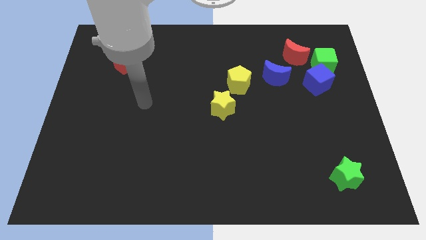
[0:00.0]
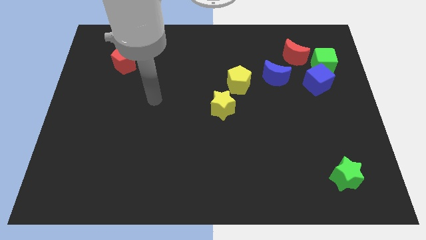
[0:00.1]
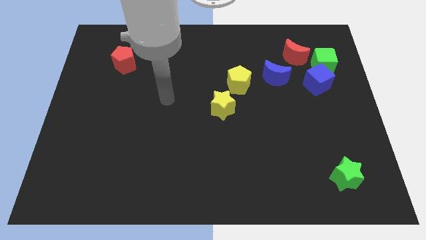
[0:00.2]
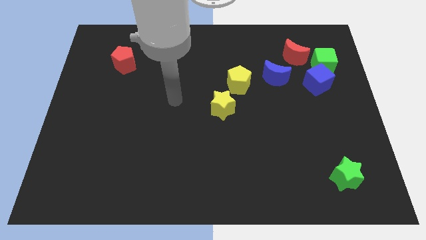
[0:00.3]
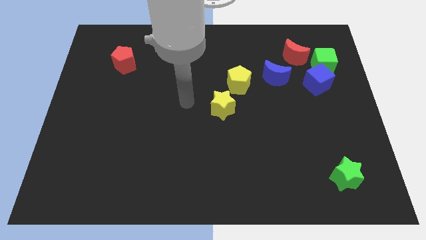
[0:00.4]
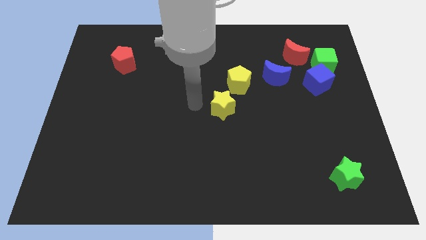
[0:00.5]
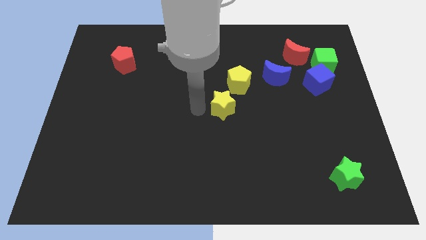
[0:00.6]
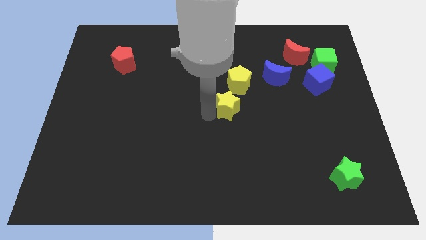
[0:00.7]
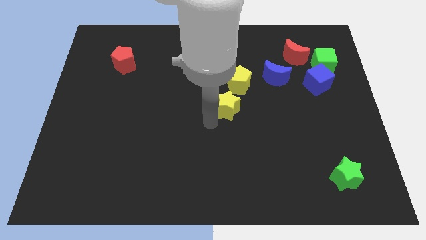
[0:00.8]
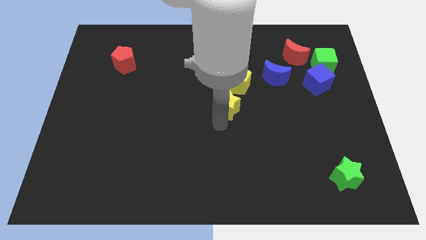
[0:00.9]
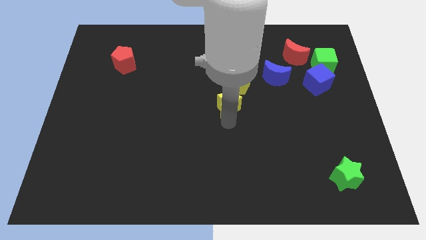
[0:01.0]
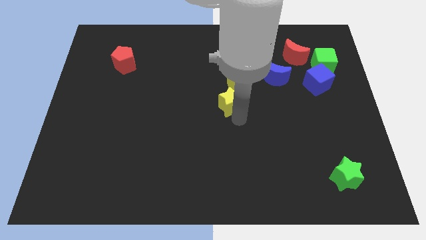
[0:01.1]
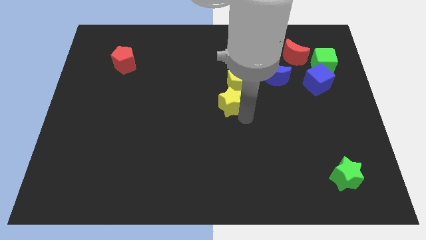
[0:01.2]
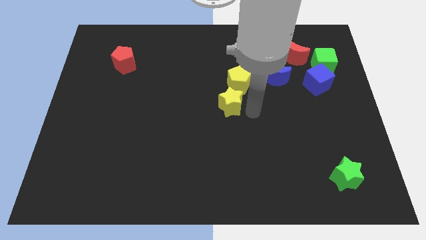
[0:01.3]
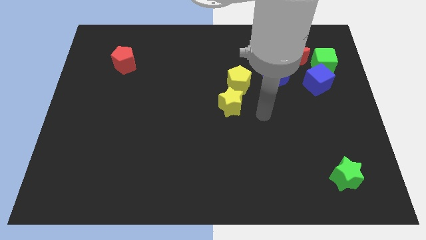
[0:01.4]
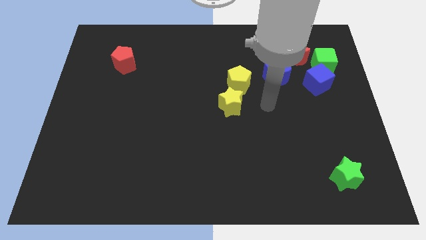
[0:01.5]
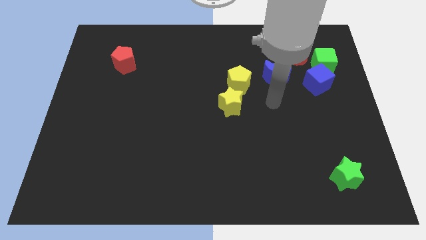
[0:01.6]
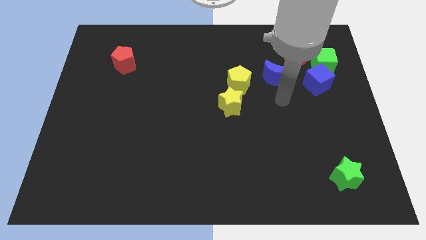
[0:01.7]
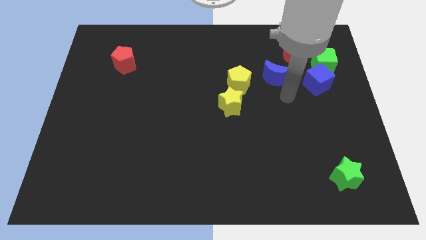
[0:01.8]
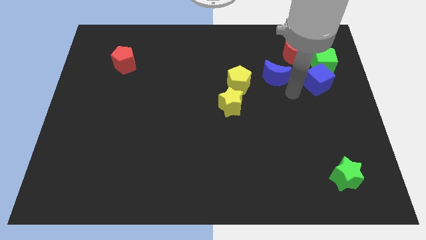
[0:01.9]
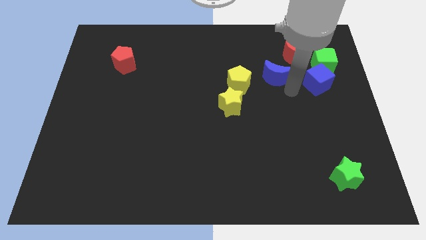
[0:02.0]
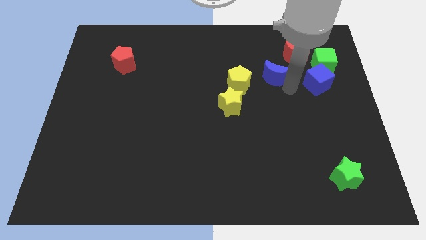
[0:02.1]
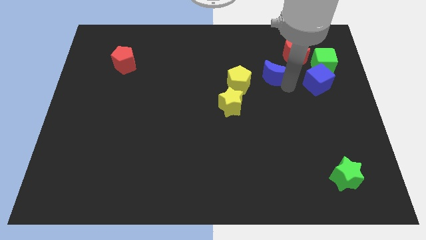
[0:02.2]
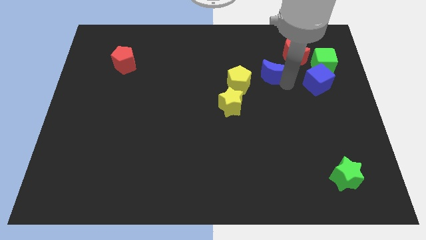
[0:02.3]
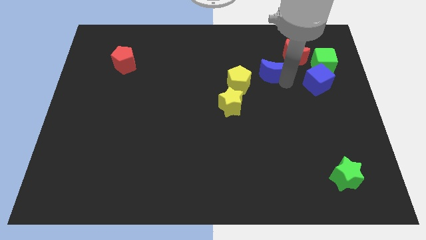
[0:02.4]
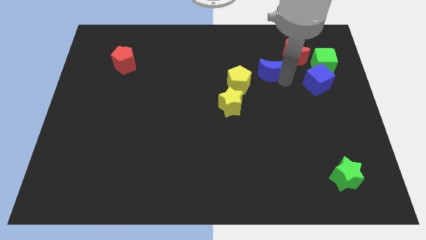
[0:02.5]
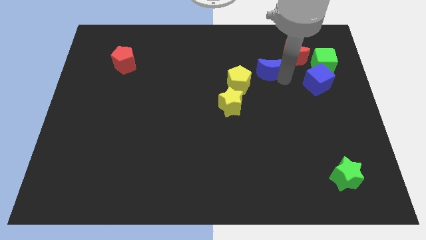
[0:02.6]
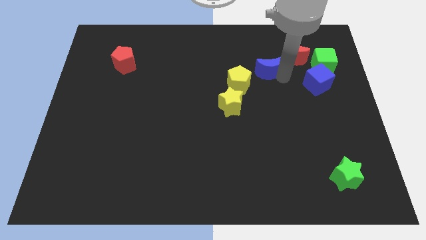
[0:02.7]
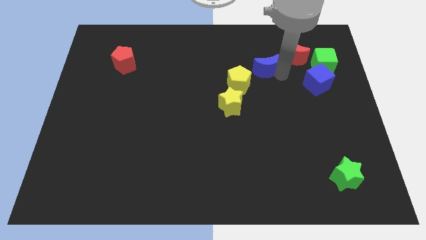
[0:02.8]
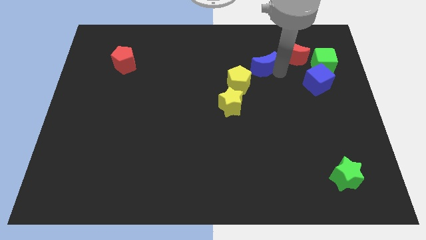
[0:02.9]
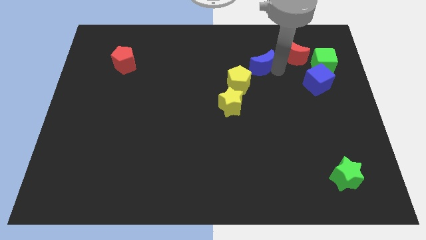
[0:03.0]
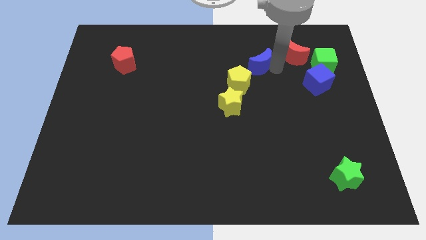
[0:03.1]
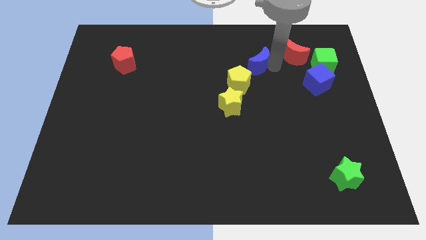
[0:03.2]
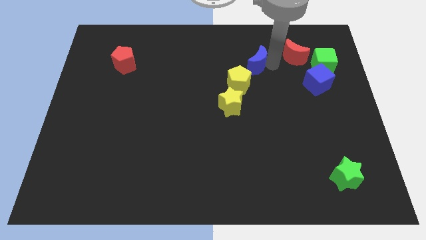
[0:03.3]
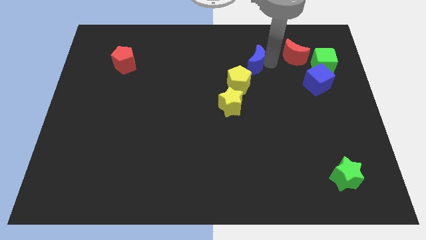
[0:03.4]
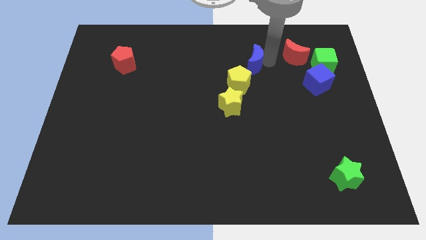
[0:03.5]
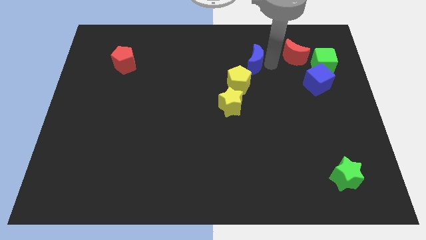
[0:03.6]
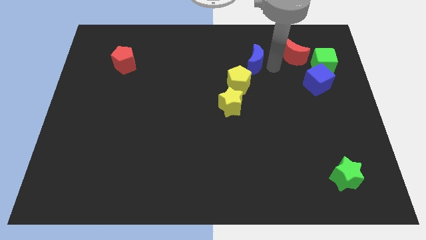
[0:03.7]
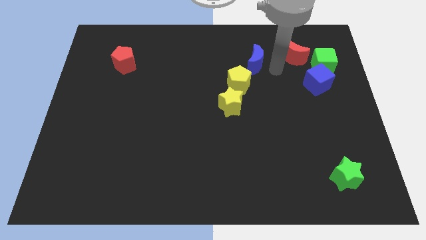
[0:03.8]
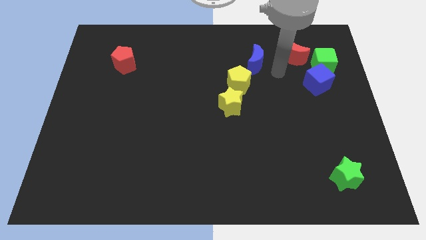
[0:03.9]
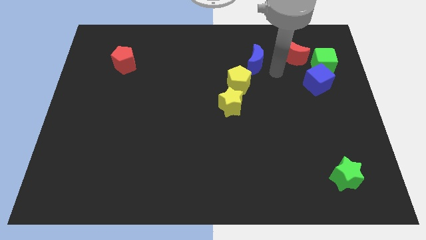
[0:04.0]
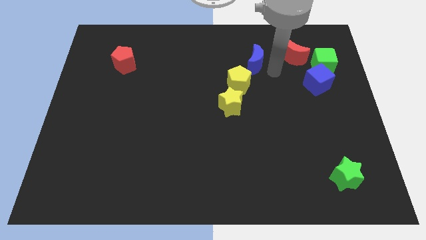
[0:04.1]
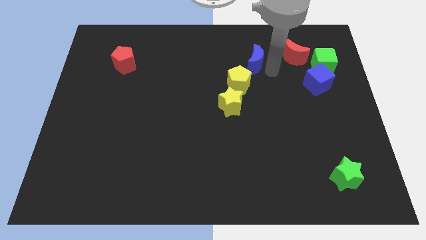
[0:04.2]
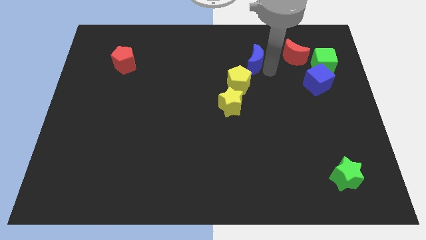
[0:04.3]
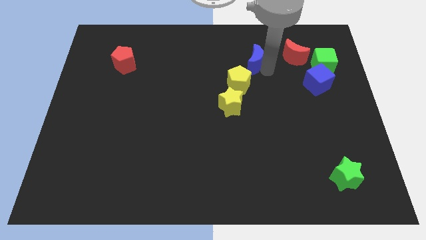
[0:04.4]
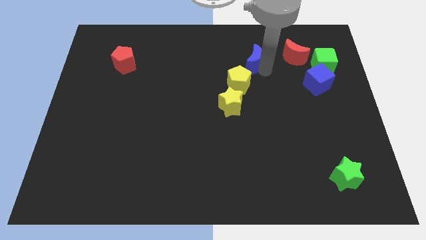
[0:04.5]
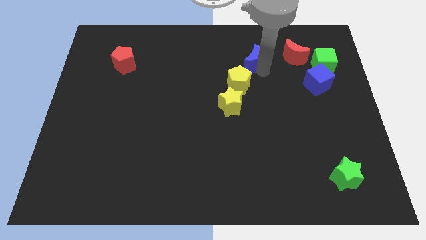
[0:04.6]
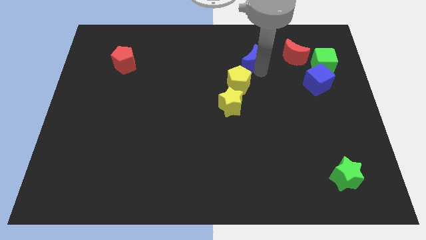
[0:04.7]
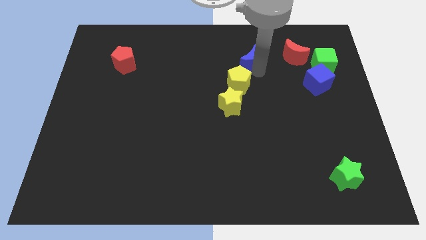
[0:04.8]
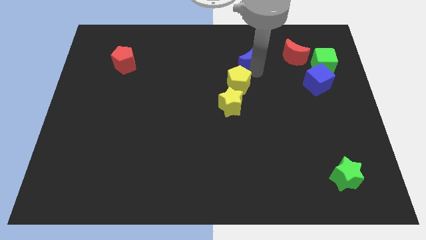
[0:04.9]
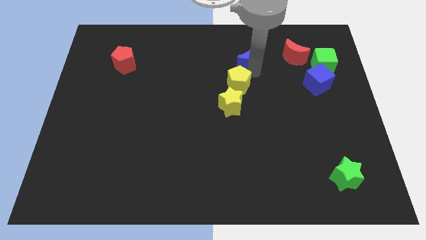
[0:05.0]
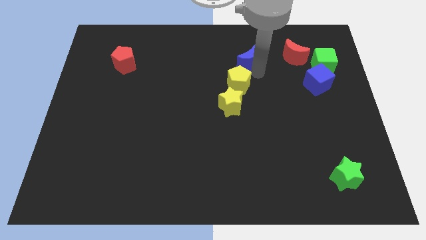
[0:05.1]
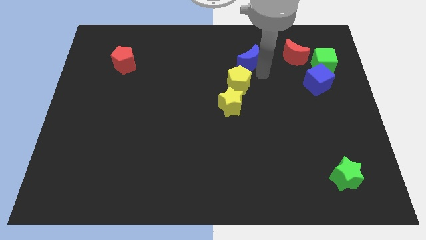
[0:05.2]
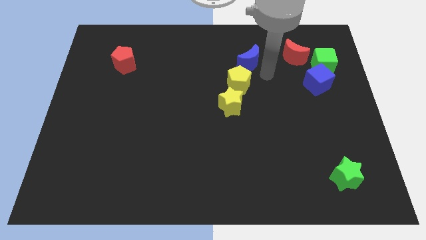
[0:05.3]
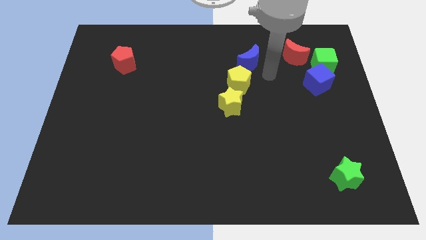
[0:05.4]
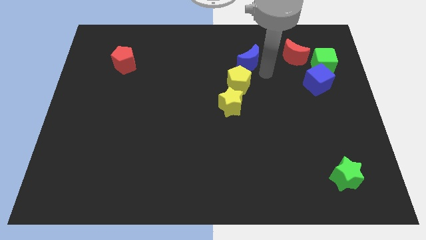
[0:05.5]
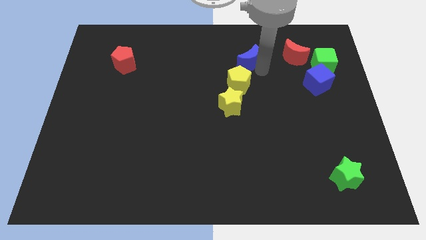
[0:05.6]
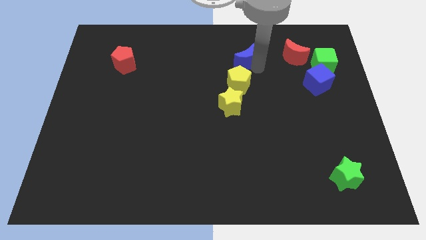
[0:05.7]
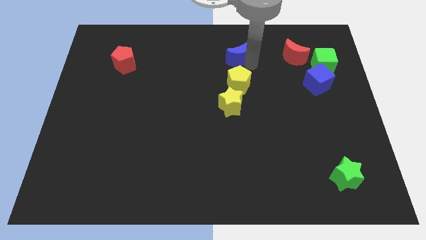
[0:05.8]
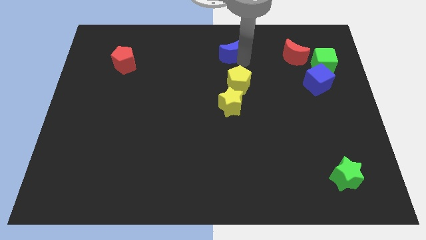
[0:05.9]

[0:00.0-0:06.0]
slide the blue moon to the top

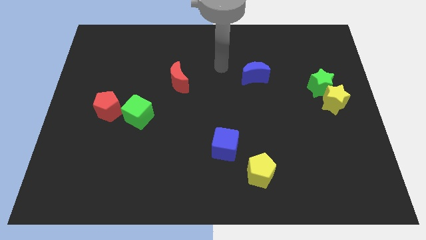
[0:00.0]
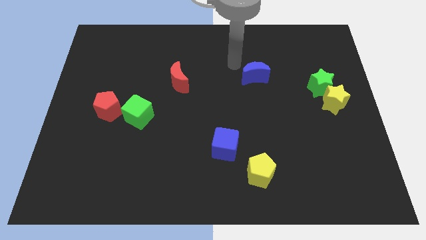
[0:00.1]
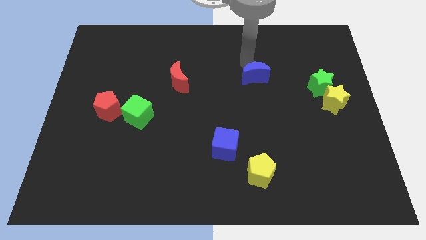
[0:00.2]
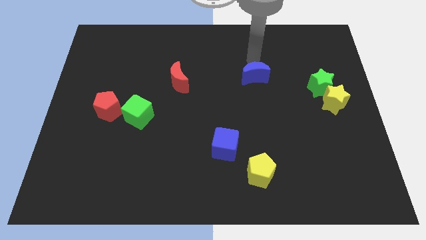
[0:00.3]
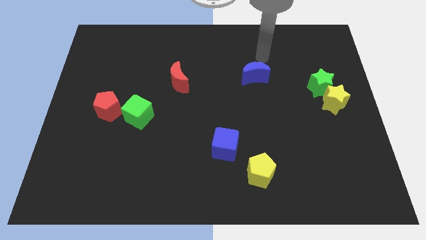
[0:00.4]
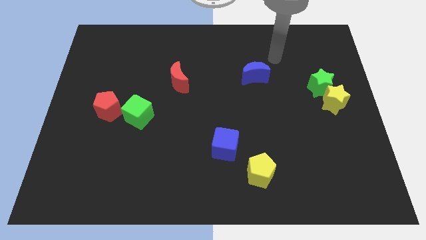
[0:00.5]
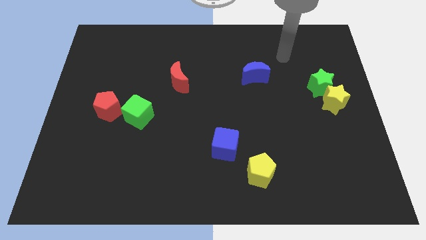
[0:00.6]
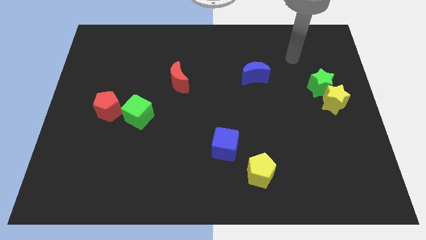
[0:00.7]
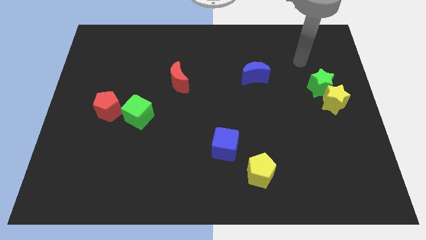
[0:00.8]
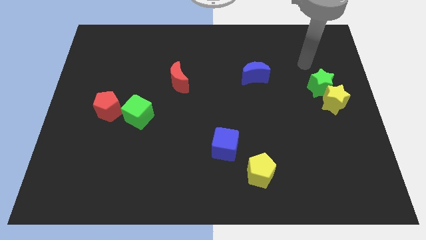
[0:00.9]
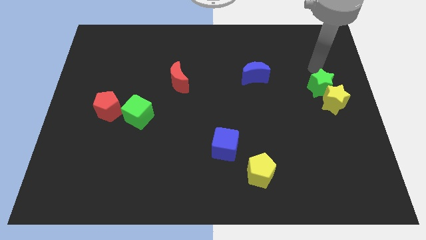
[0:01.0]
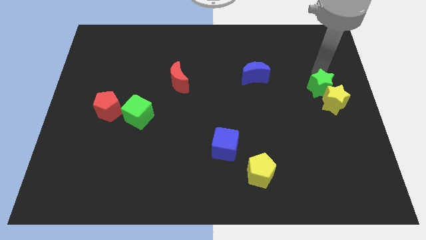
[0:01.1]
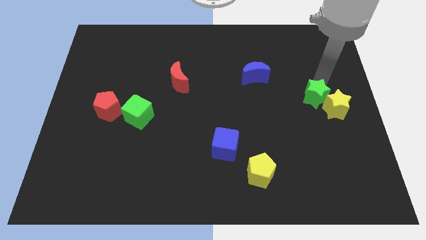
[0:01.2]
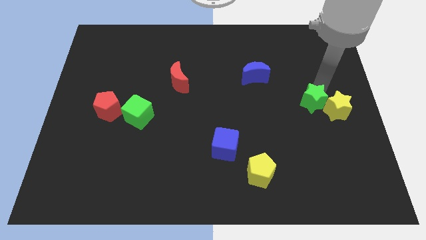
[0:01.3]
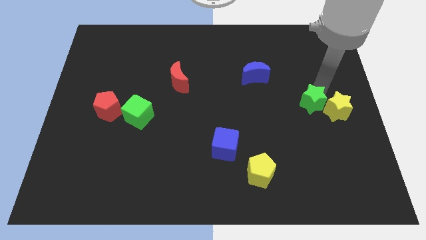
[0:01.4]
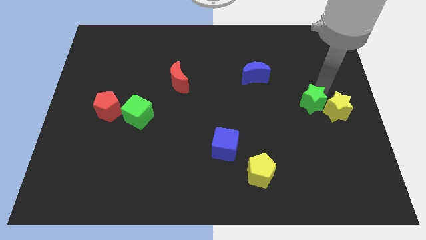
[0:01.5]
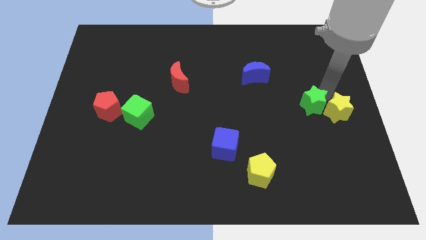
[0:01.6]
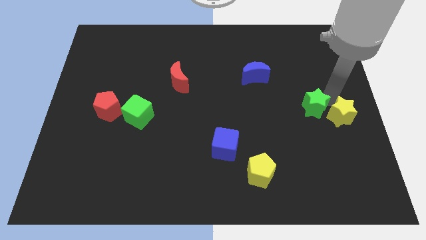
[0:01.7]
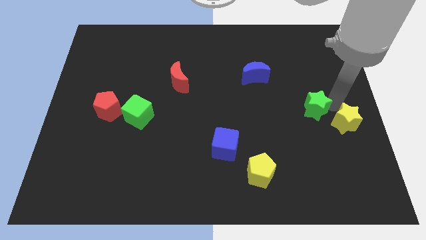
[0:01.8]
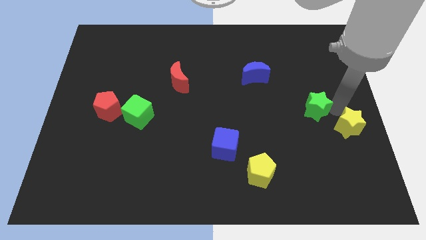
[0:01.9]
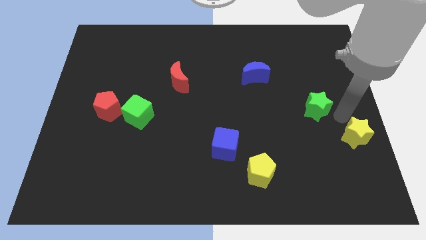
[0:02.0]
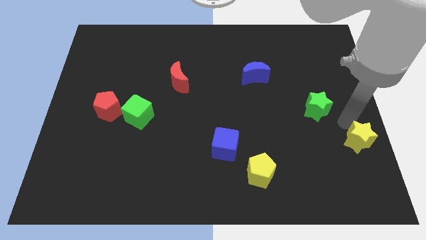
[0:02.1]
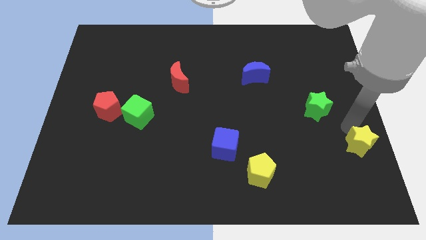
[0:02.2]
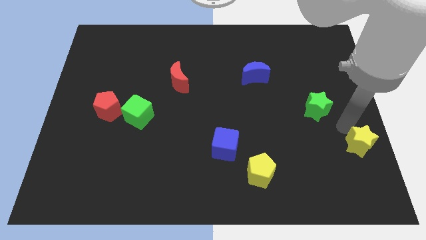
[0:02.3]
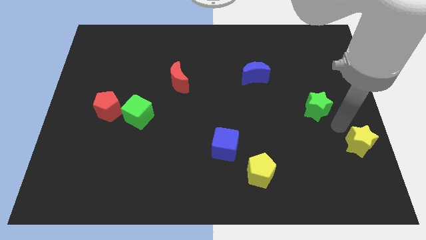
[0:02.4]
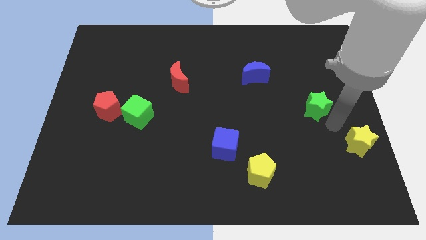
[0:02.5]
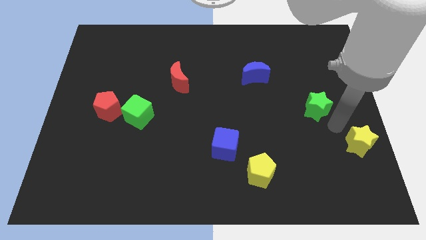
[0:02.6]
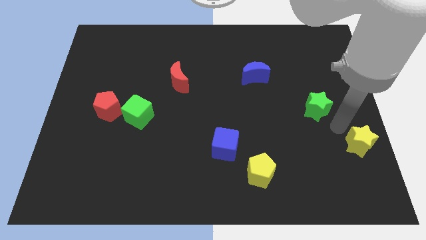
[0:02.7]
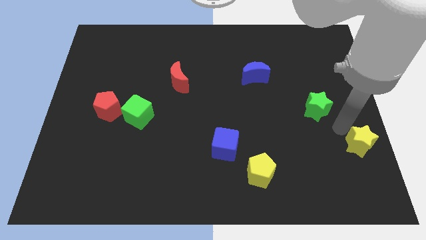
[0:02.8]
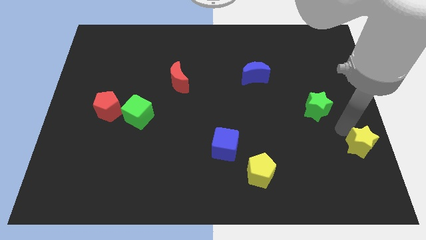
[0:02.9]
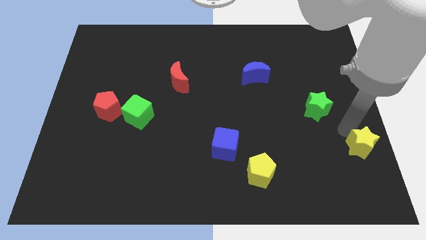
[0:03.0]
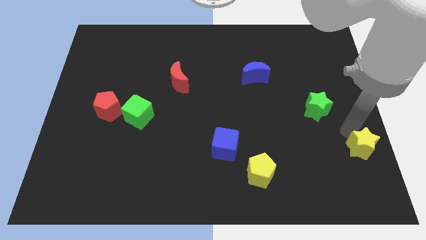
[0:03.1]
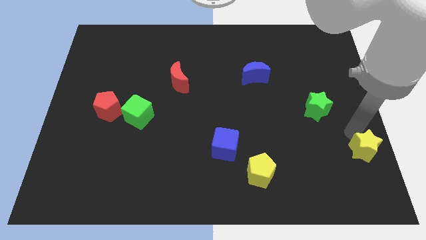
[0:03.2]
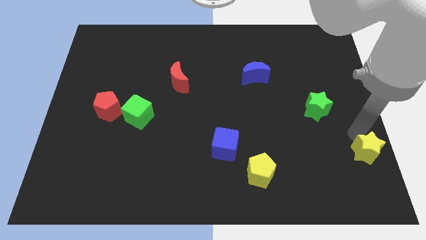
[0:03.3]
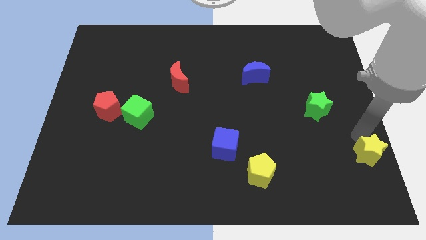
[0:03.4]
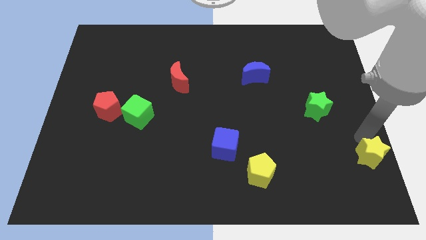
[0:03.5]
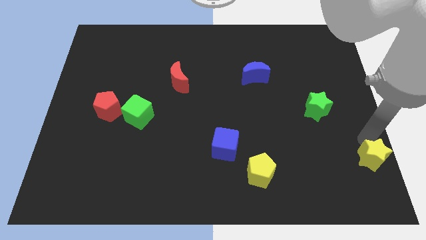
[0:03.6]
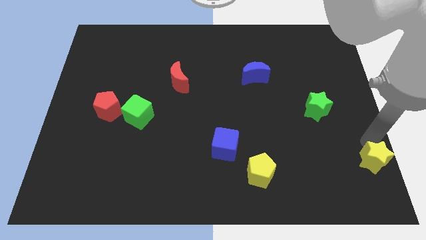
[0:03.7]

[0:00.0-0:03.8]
push the yellow star to the bottom right
